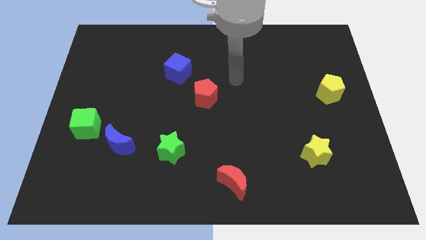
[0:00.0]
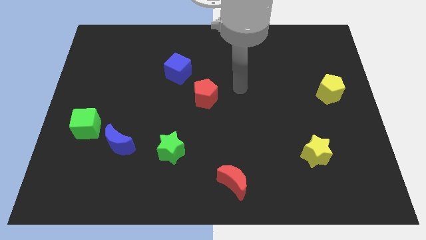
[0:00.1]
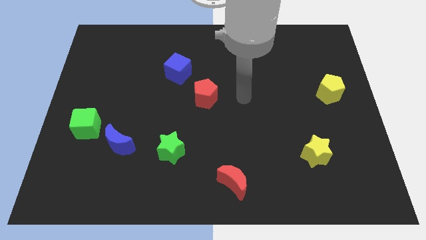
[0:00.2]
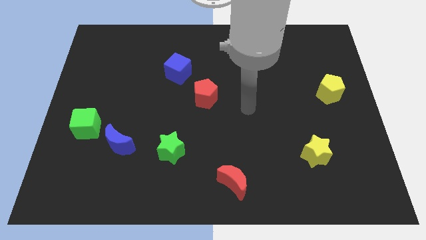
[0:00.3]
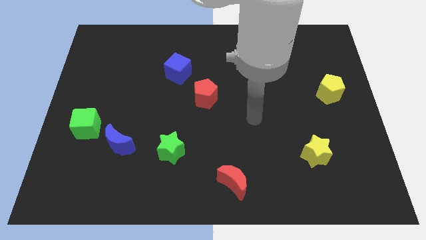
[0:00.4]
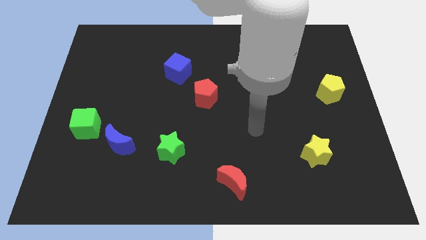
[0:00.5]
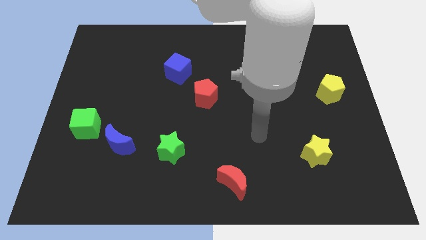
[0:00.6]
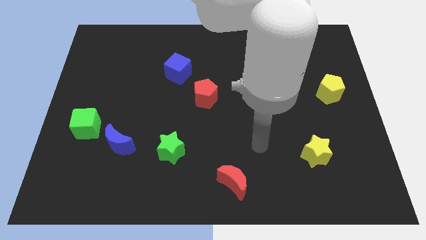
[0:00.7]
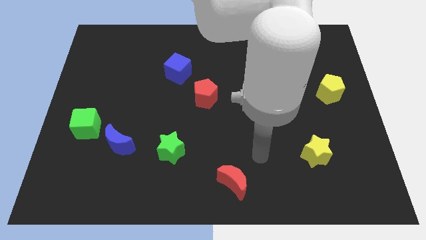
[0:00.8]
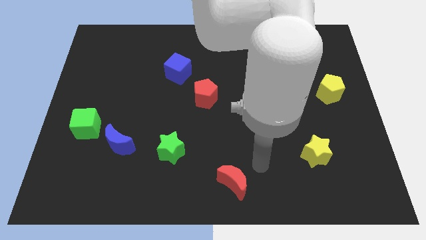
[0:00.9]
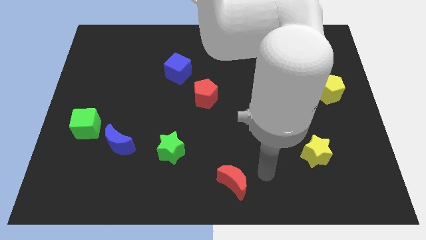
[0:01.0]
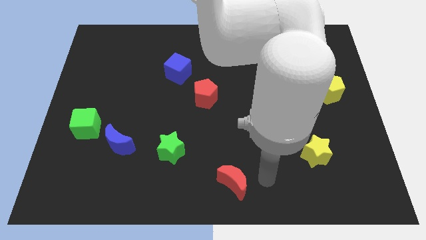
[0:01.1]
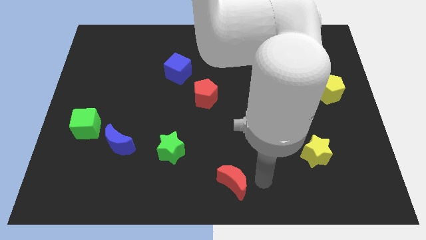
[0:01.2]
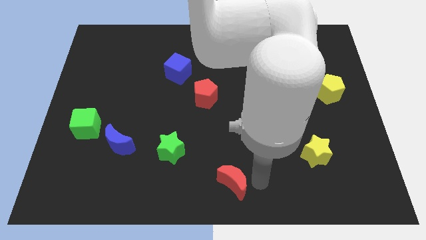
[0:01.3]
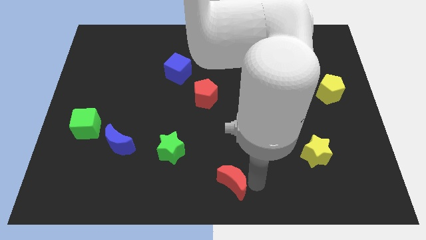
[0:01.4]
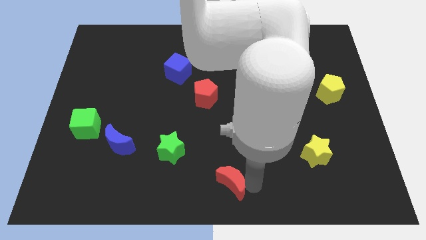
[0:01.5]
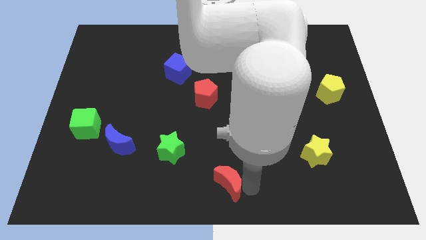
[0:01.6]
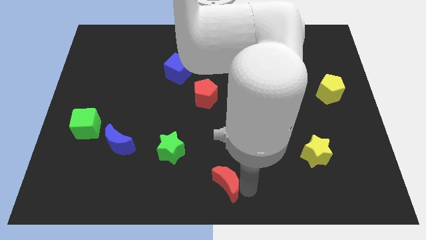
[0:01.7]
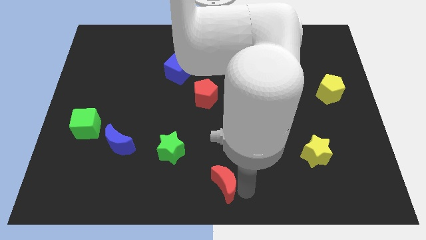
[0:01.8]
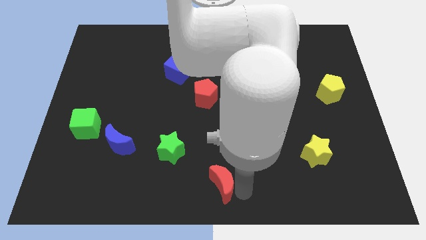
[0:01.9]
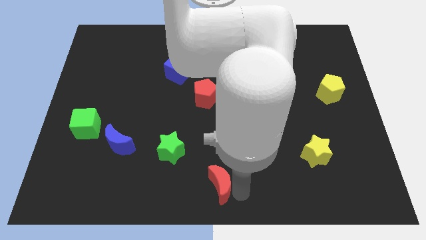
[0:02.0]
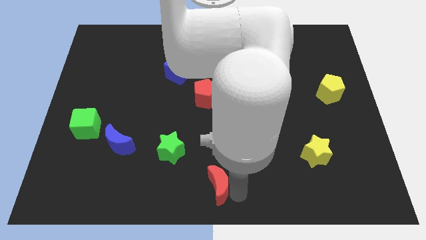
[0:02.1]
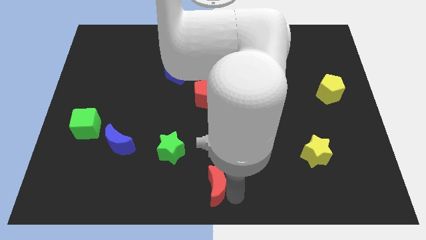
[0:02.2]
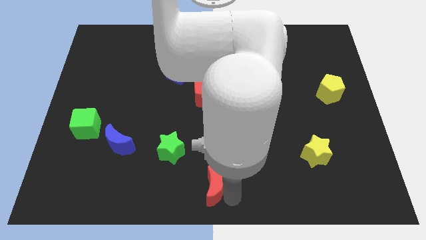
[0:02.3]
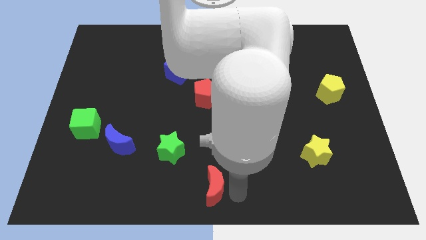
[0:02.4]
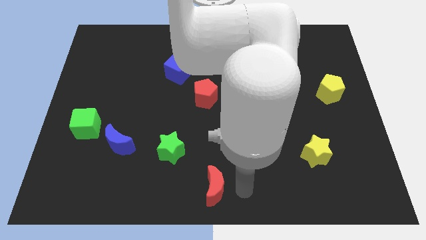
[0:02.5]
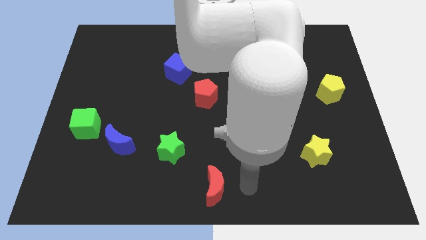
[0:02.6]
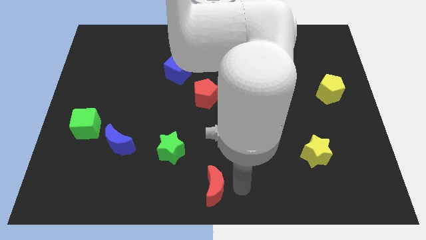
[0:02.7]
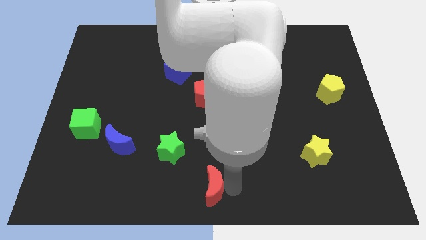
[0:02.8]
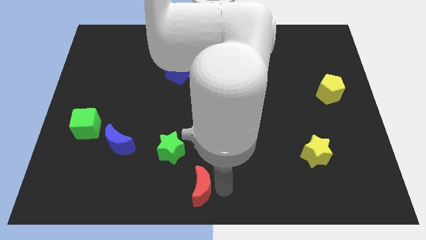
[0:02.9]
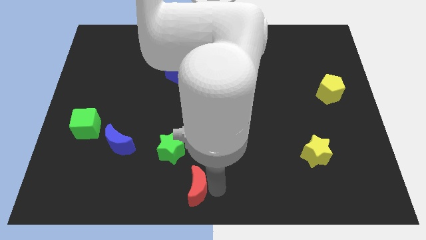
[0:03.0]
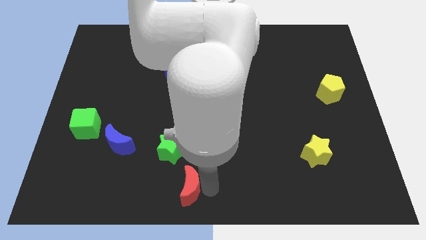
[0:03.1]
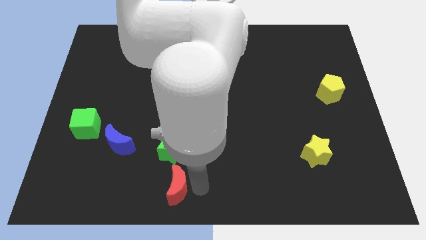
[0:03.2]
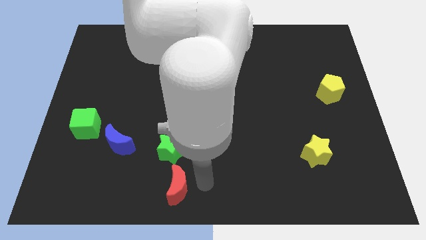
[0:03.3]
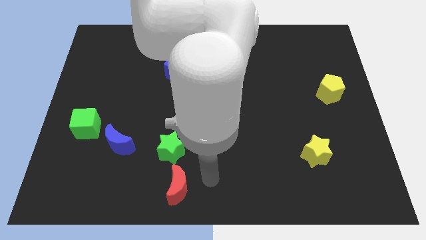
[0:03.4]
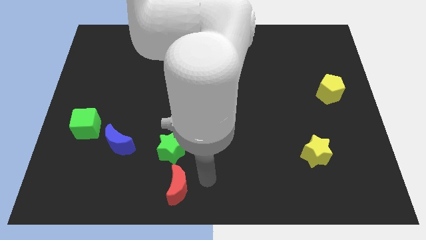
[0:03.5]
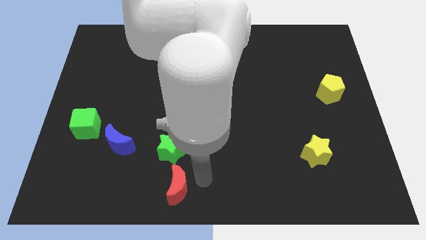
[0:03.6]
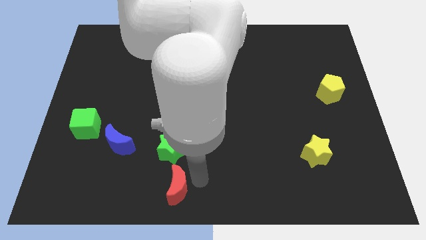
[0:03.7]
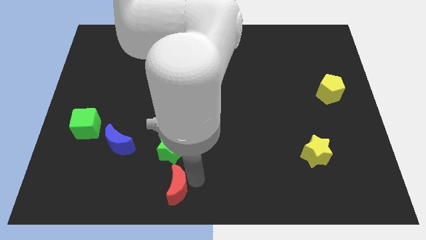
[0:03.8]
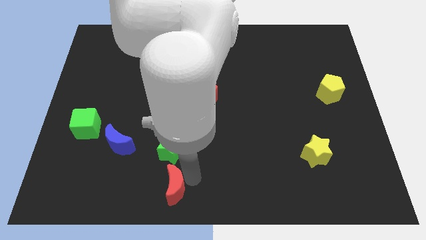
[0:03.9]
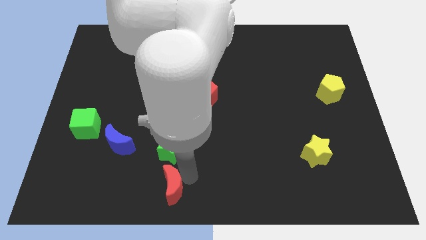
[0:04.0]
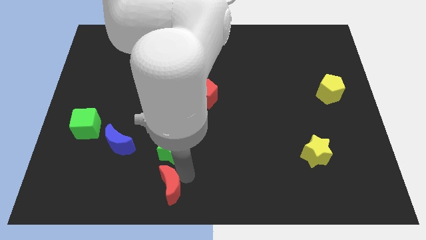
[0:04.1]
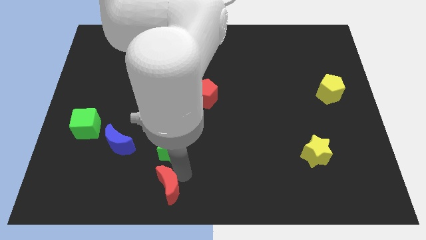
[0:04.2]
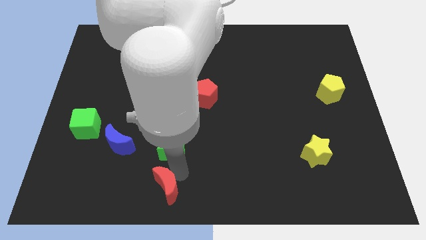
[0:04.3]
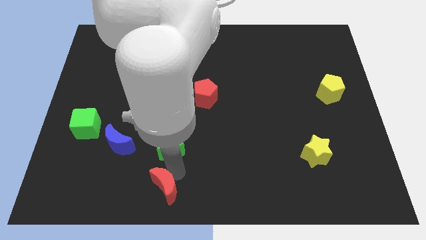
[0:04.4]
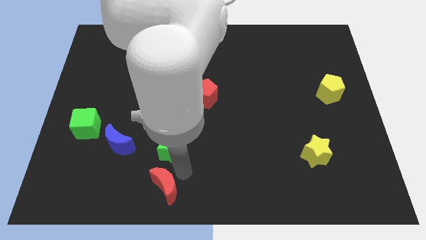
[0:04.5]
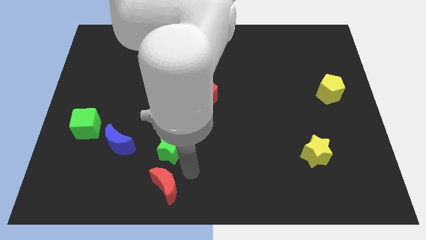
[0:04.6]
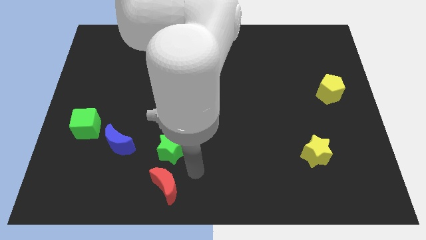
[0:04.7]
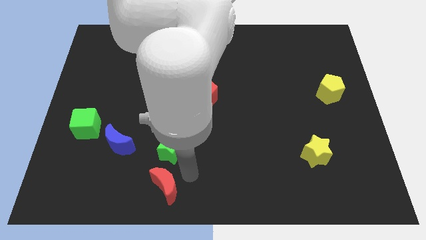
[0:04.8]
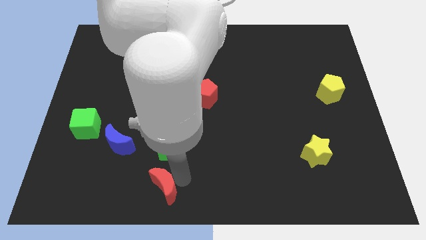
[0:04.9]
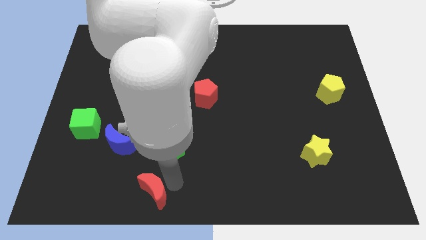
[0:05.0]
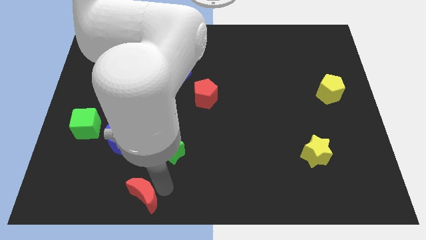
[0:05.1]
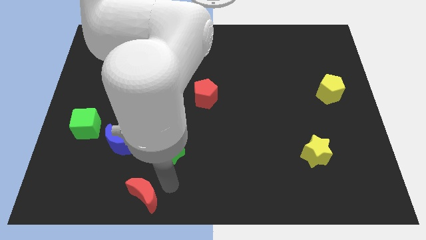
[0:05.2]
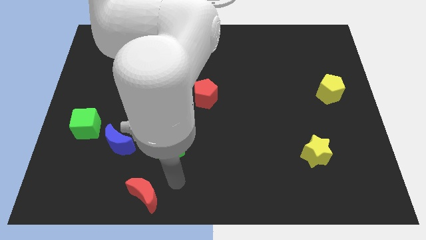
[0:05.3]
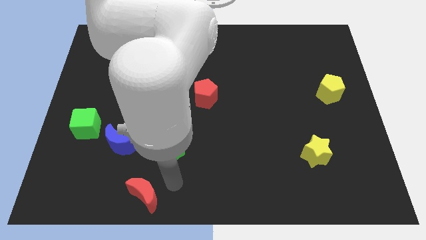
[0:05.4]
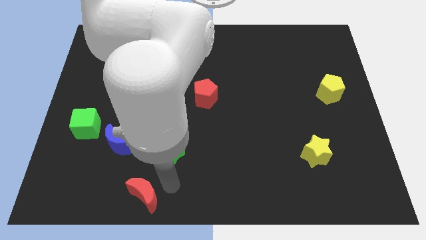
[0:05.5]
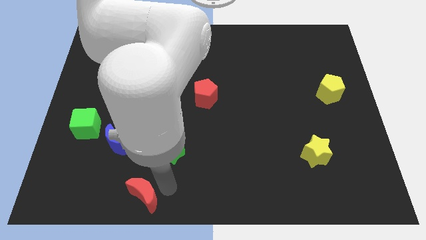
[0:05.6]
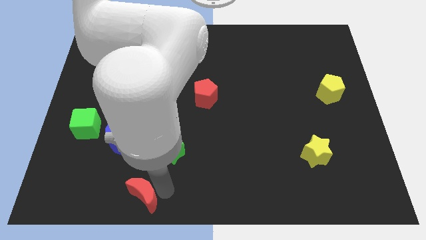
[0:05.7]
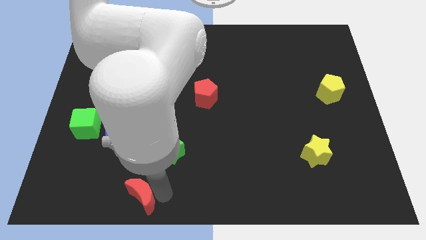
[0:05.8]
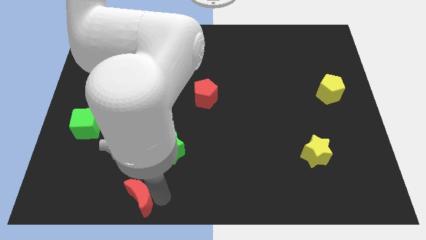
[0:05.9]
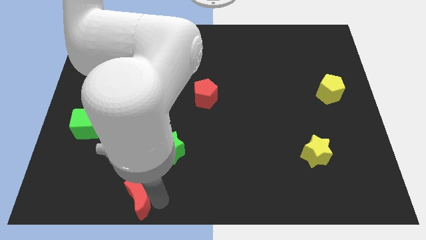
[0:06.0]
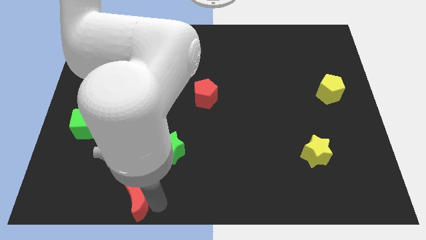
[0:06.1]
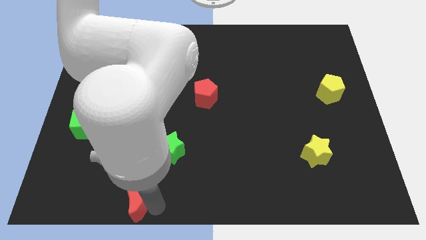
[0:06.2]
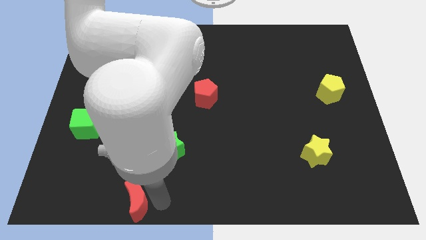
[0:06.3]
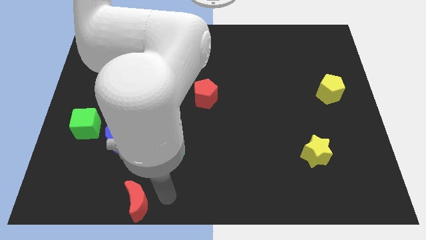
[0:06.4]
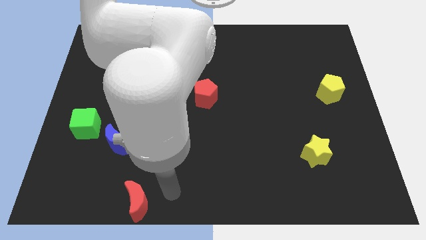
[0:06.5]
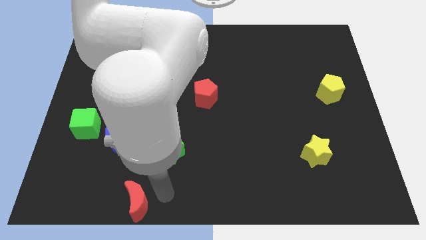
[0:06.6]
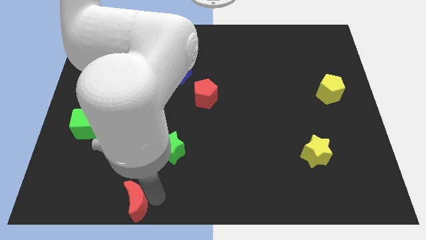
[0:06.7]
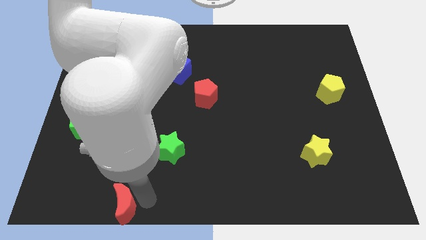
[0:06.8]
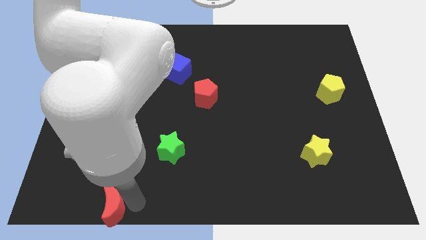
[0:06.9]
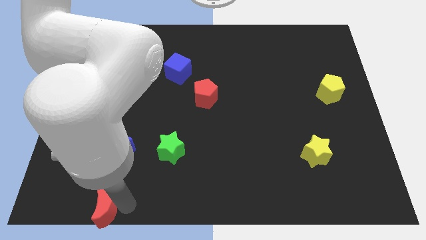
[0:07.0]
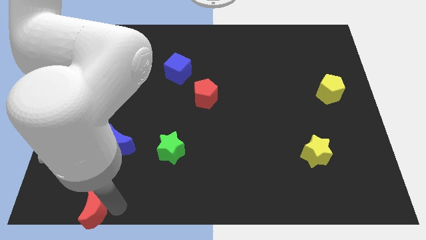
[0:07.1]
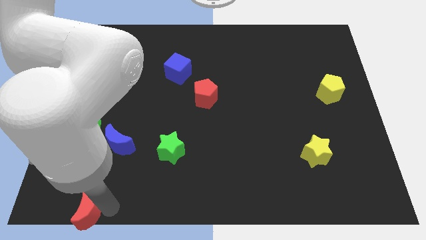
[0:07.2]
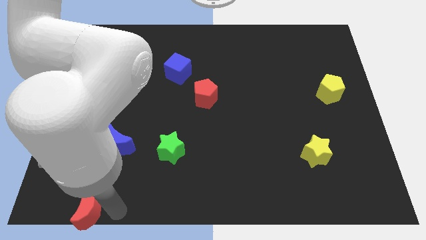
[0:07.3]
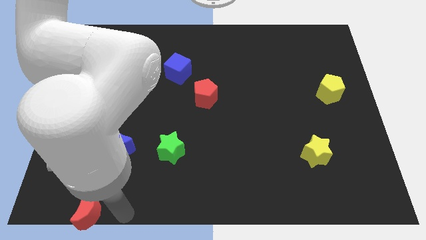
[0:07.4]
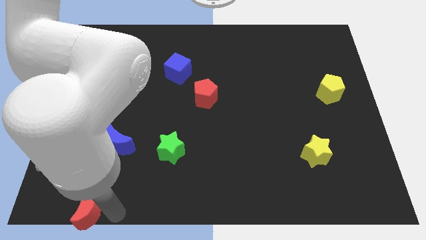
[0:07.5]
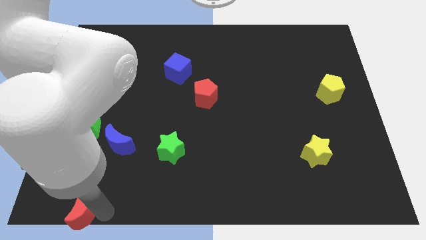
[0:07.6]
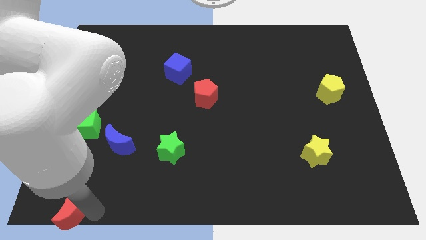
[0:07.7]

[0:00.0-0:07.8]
slide the red moon to the lower left corner
